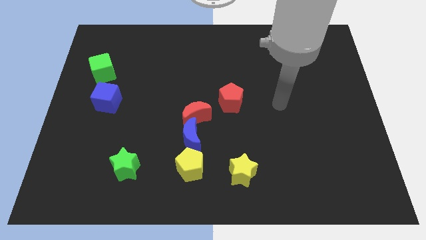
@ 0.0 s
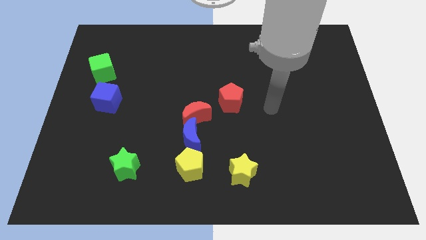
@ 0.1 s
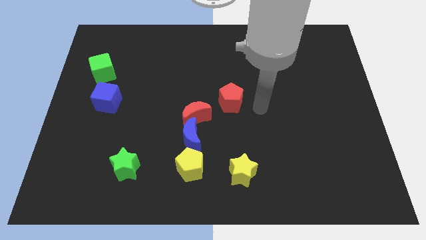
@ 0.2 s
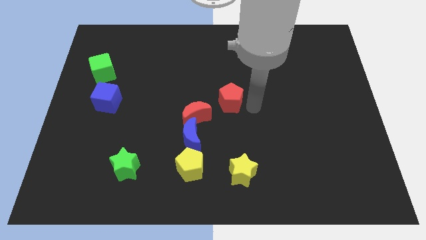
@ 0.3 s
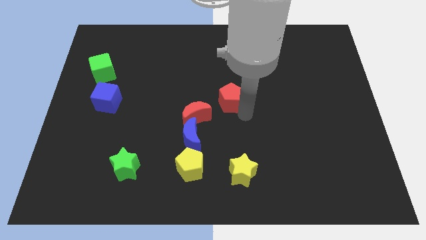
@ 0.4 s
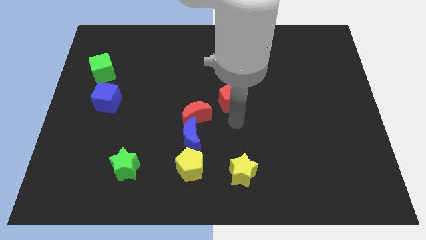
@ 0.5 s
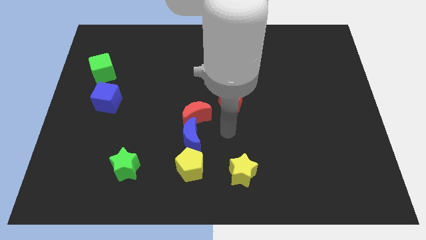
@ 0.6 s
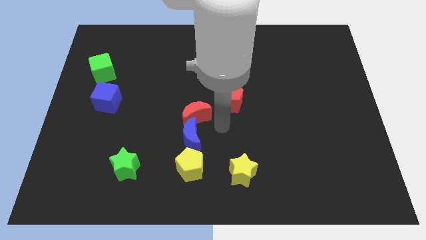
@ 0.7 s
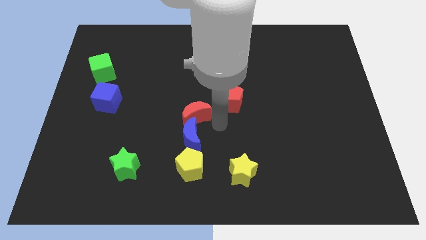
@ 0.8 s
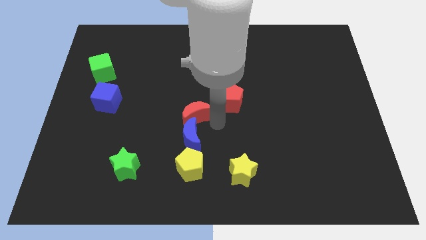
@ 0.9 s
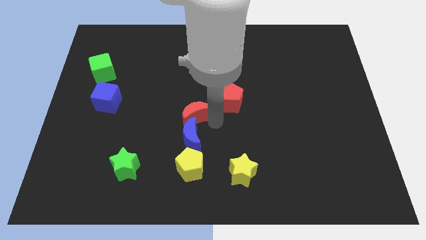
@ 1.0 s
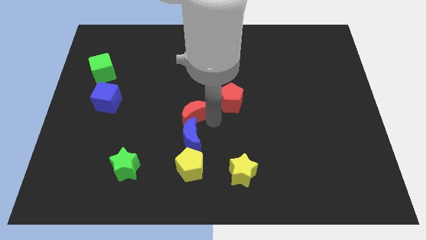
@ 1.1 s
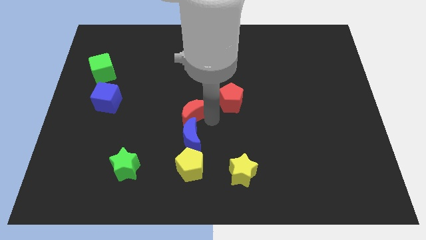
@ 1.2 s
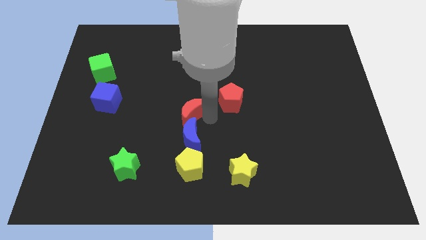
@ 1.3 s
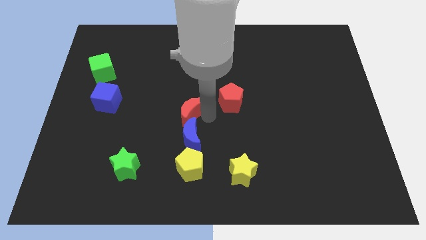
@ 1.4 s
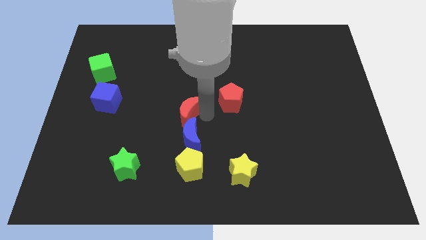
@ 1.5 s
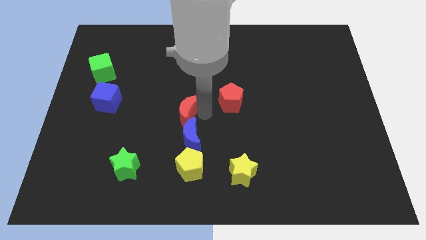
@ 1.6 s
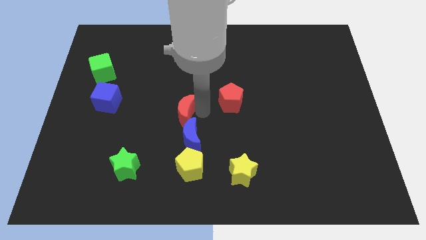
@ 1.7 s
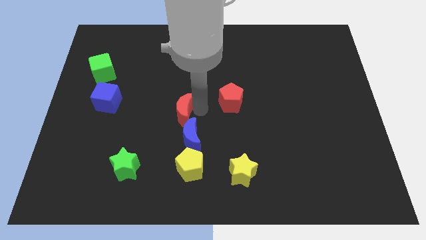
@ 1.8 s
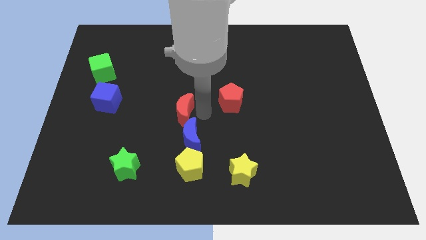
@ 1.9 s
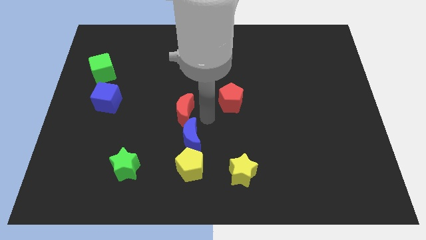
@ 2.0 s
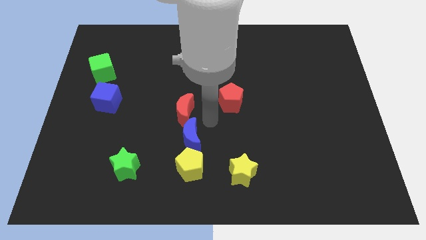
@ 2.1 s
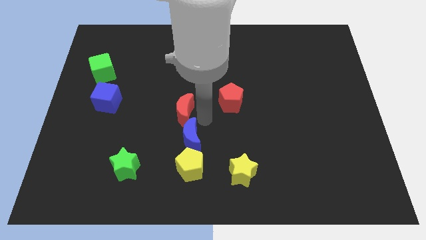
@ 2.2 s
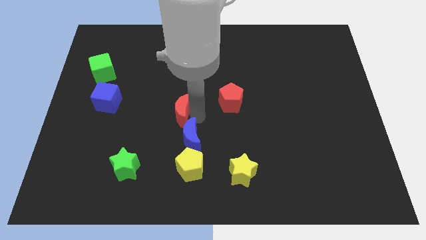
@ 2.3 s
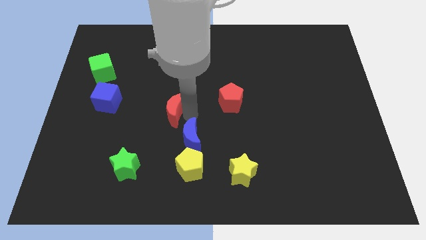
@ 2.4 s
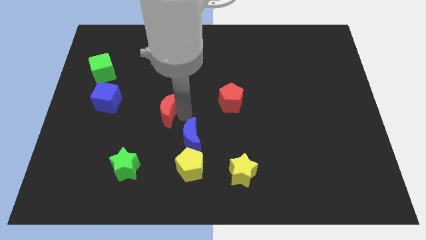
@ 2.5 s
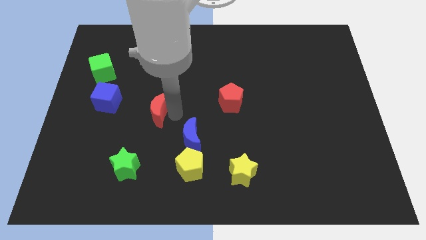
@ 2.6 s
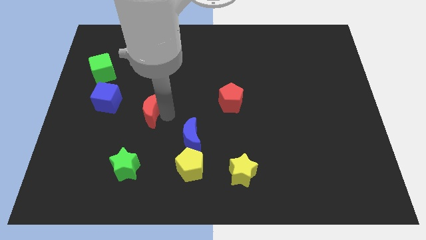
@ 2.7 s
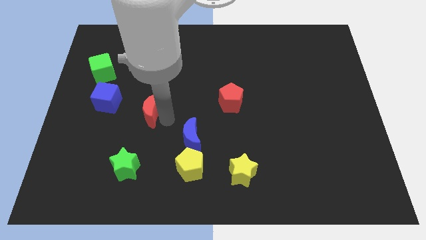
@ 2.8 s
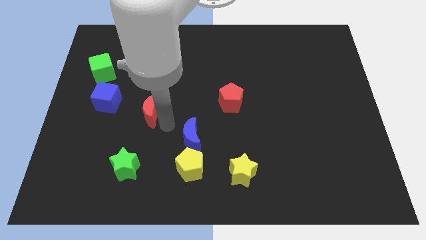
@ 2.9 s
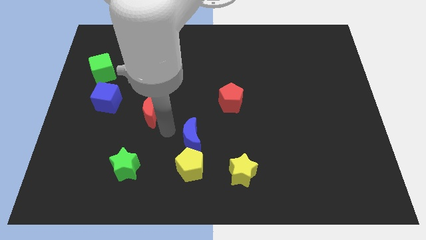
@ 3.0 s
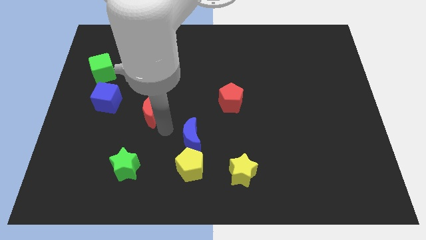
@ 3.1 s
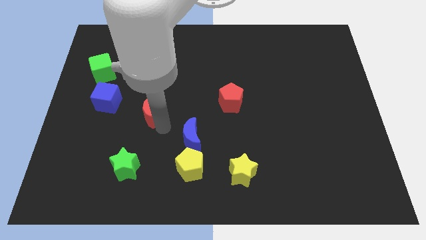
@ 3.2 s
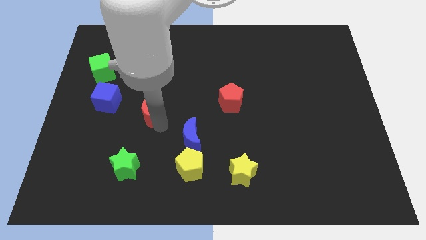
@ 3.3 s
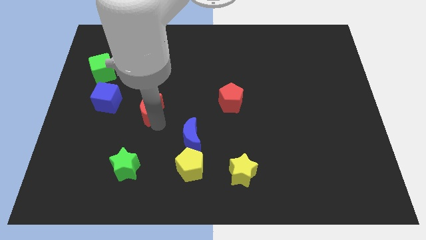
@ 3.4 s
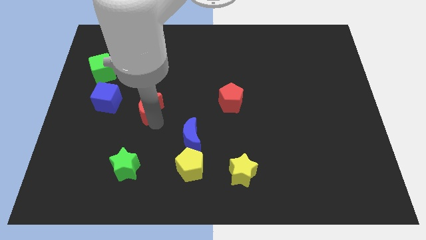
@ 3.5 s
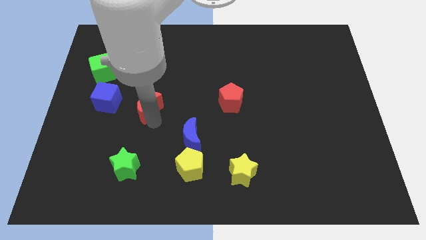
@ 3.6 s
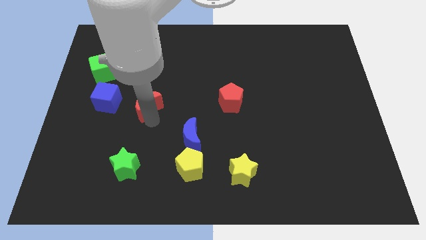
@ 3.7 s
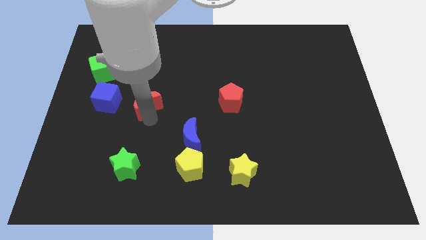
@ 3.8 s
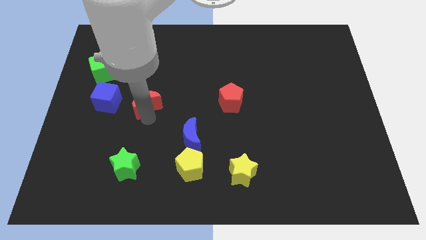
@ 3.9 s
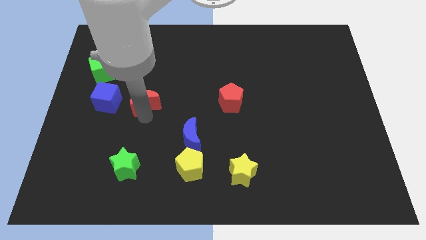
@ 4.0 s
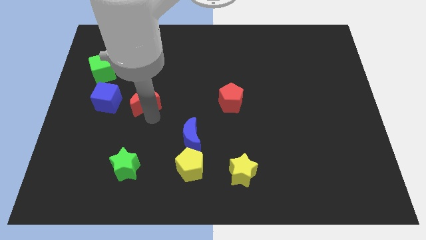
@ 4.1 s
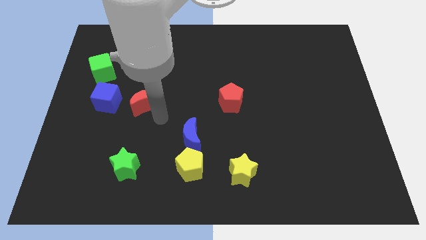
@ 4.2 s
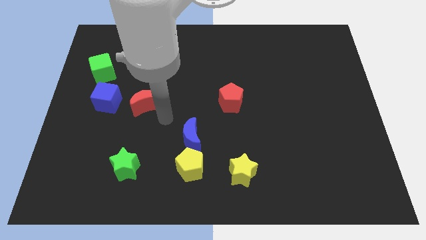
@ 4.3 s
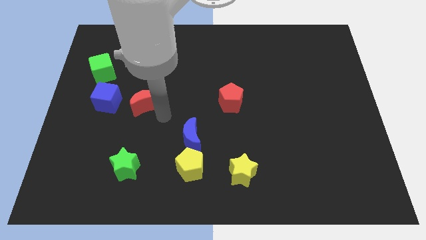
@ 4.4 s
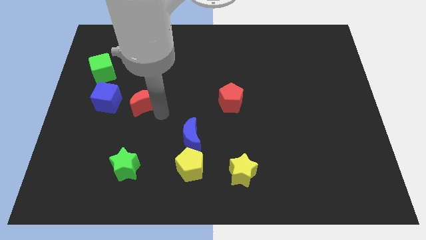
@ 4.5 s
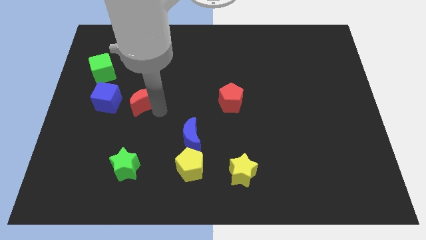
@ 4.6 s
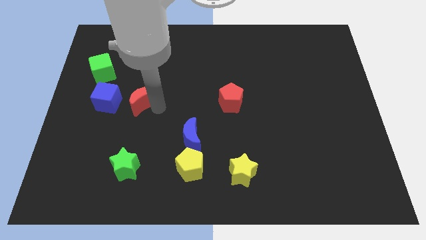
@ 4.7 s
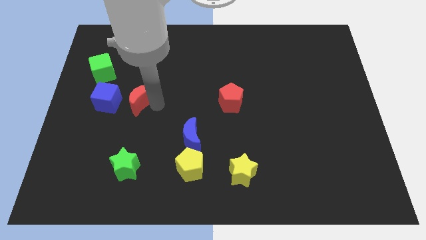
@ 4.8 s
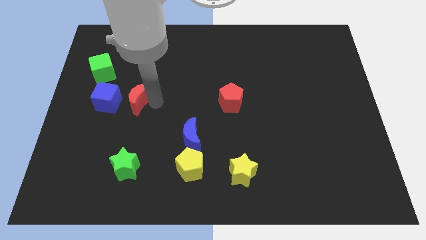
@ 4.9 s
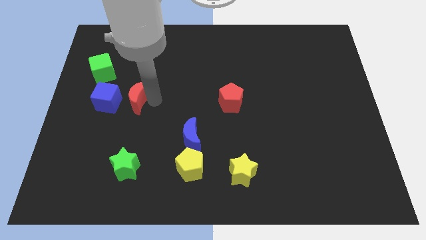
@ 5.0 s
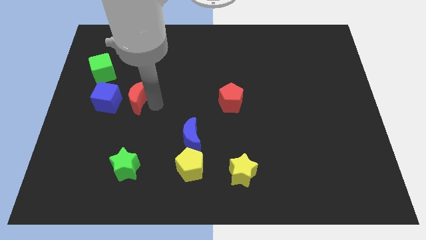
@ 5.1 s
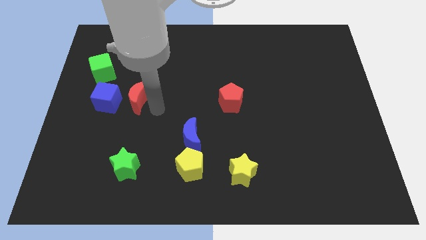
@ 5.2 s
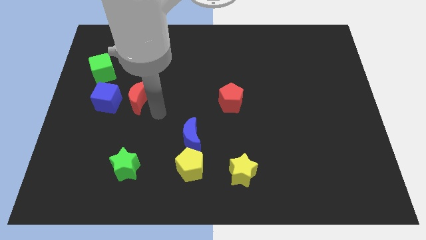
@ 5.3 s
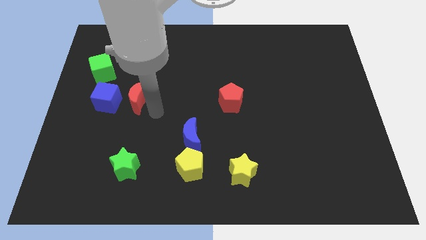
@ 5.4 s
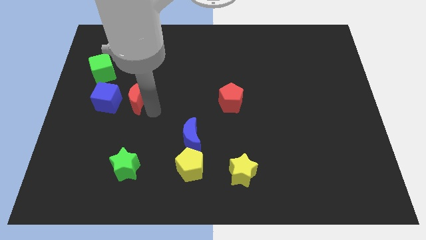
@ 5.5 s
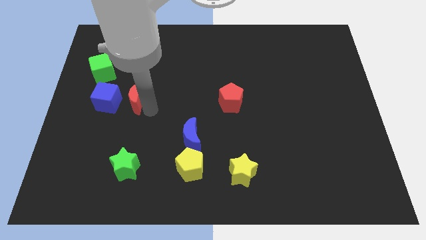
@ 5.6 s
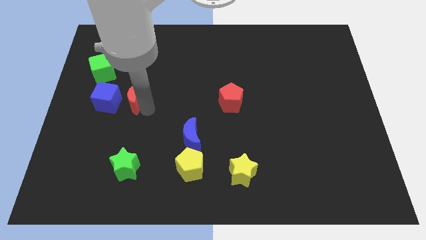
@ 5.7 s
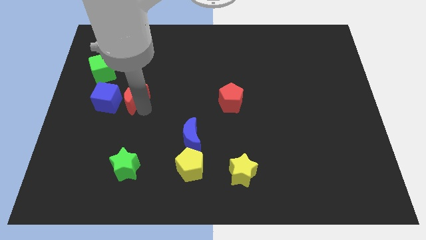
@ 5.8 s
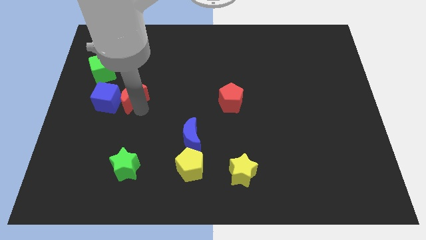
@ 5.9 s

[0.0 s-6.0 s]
slide the red moon to the bottom right of the green cube
